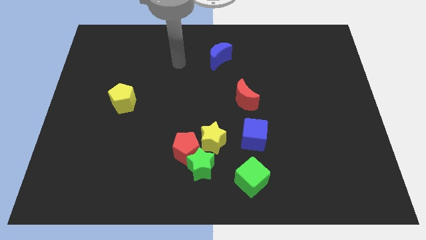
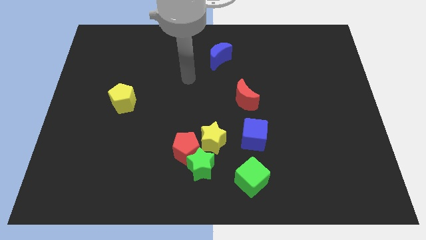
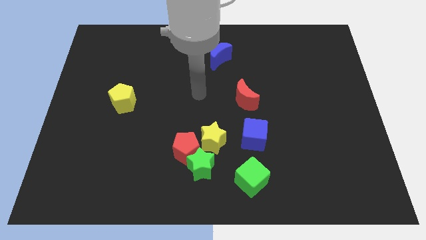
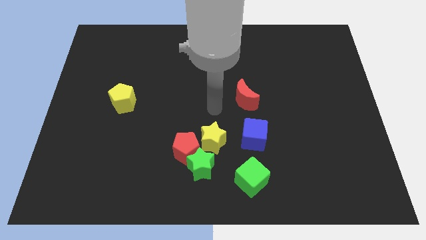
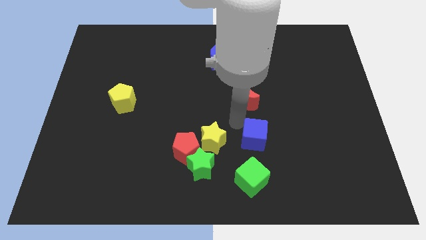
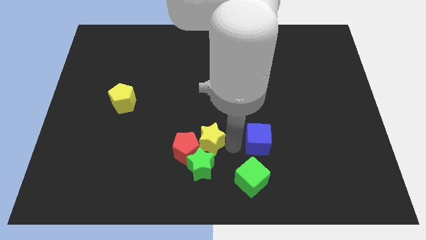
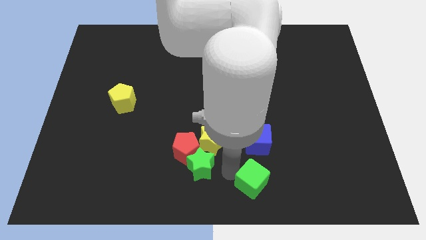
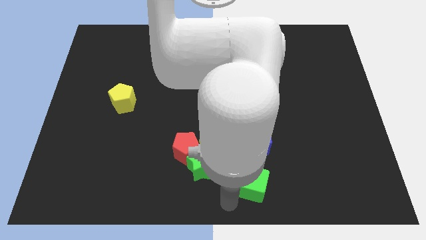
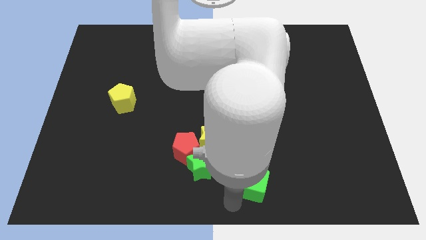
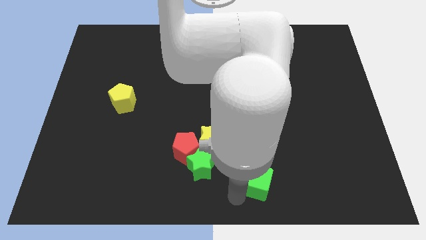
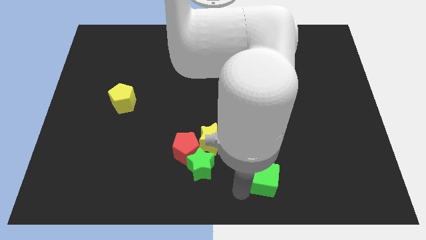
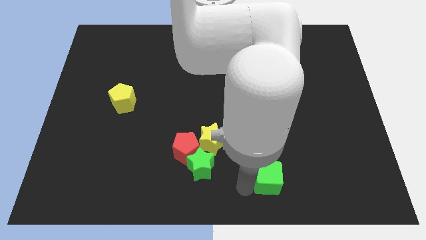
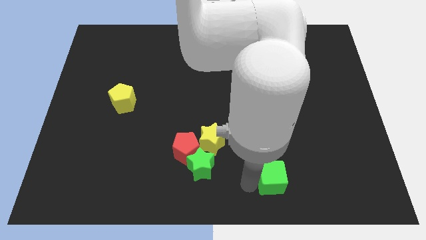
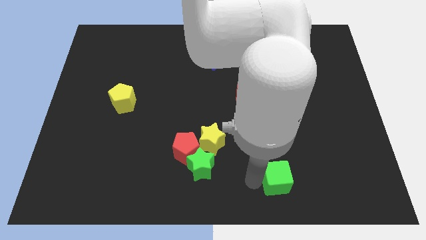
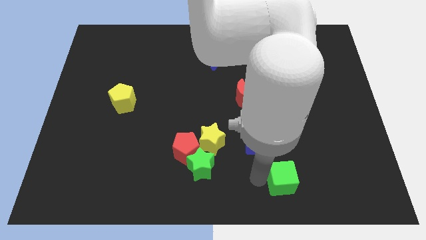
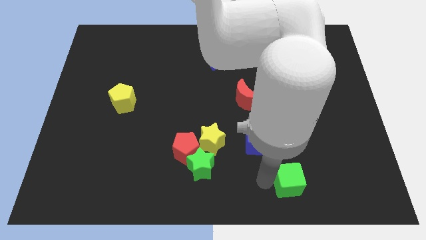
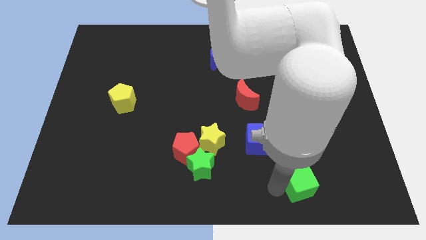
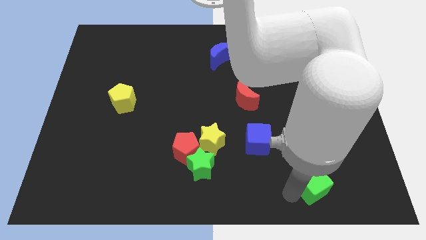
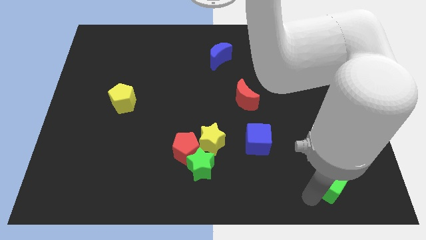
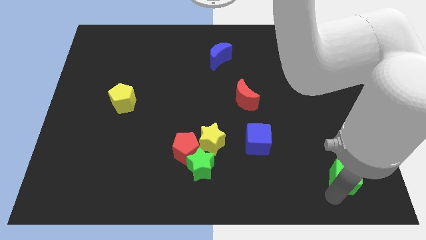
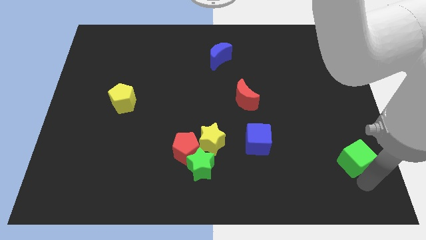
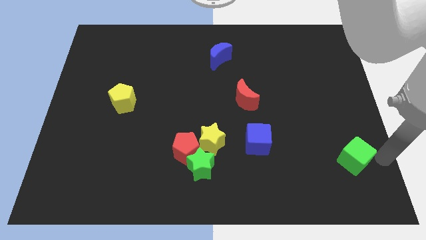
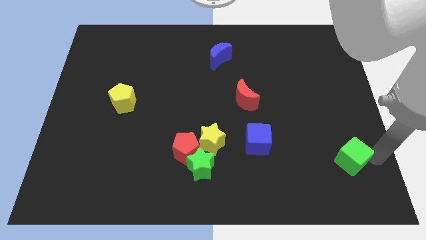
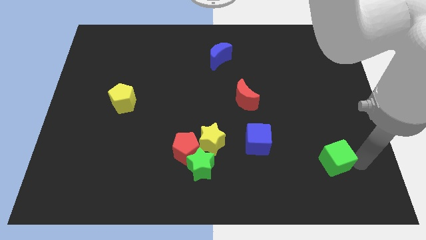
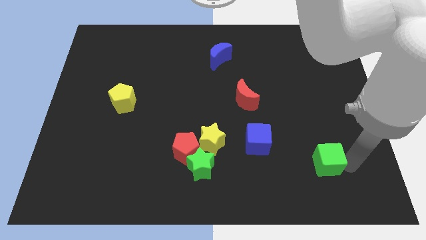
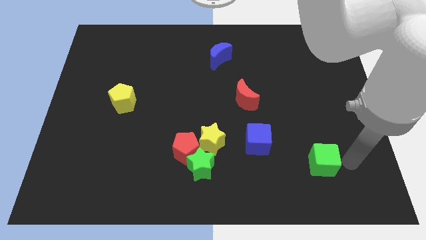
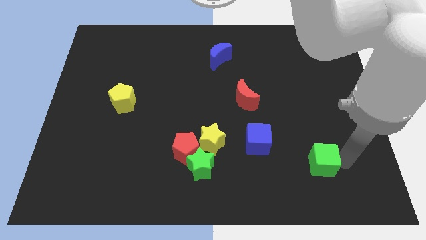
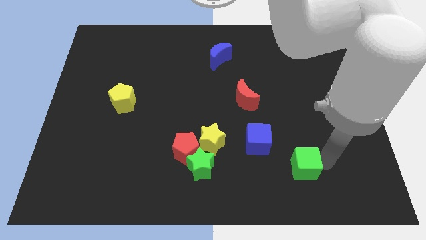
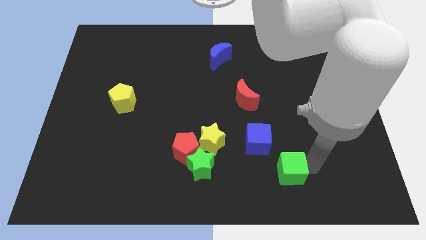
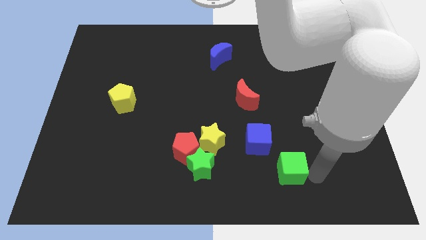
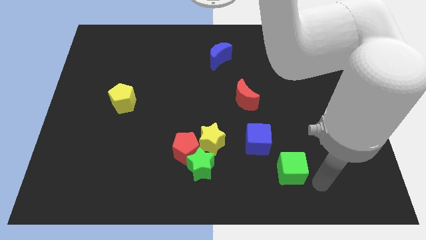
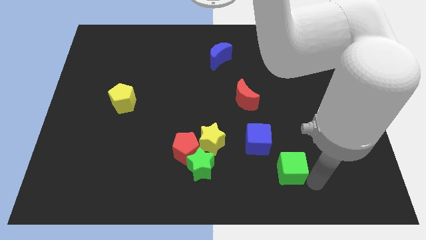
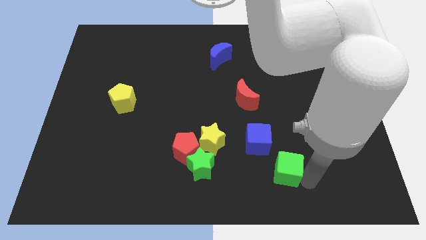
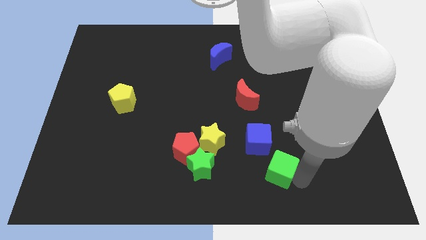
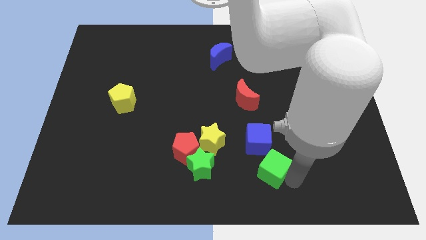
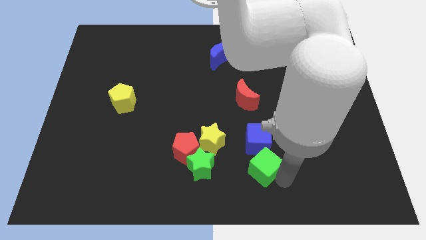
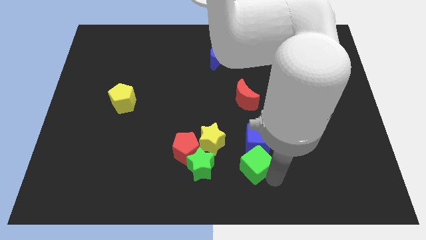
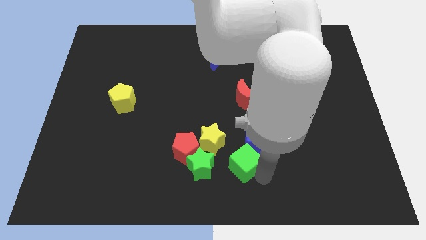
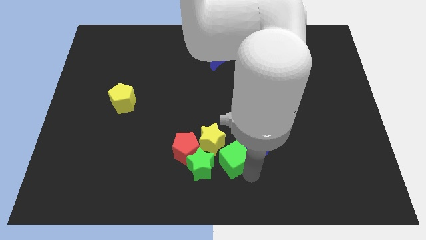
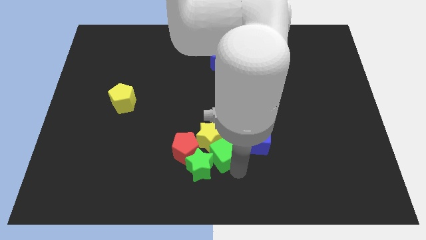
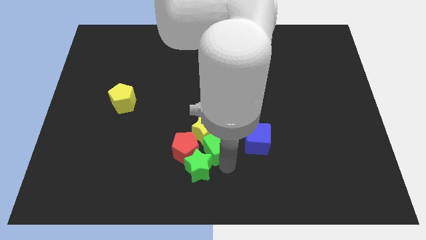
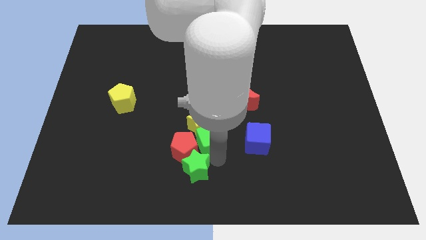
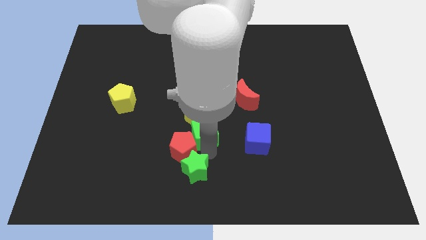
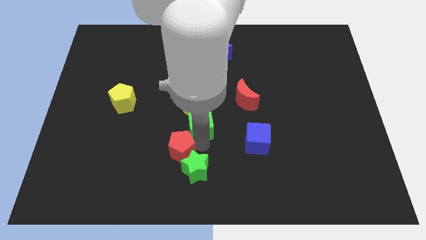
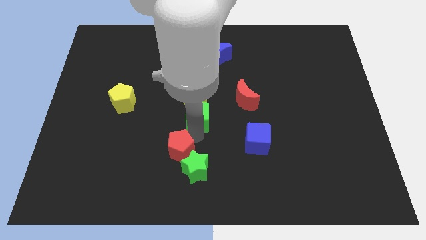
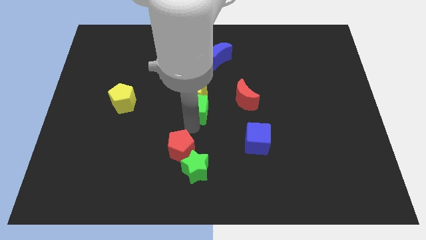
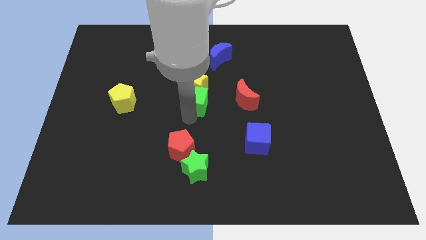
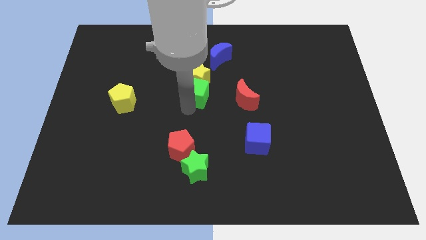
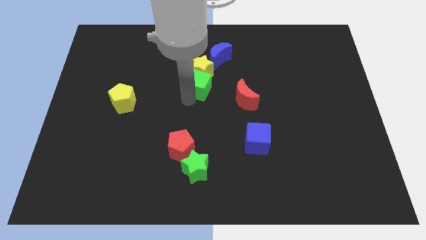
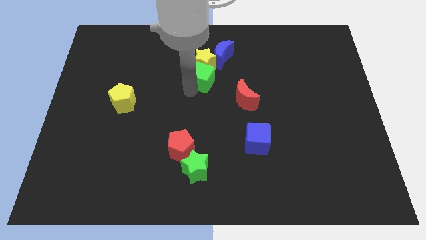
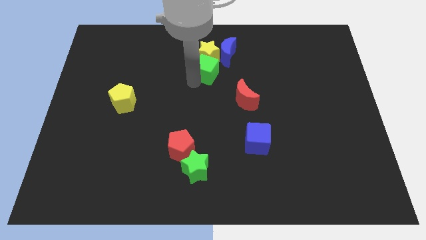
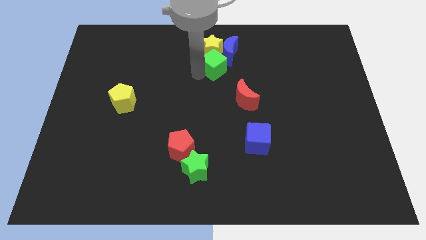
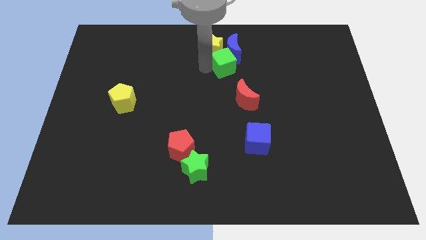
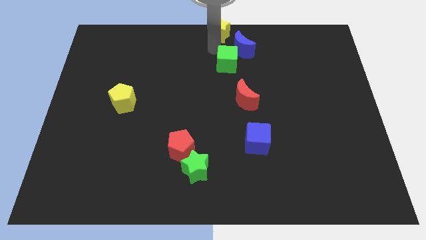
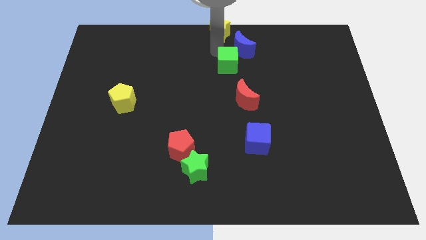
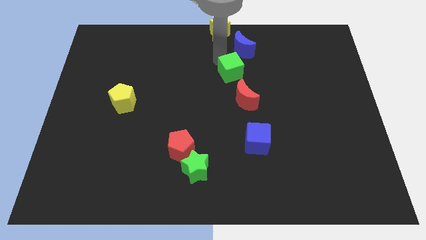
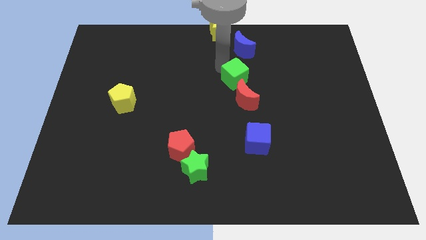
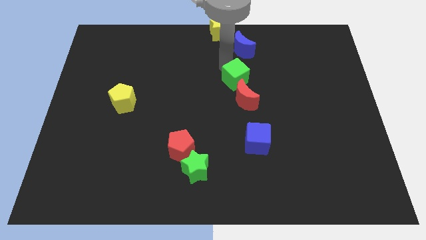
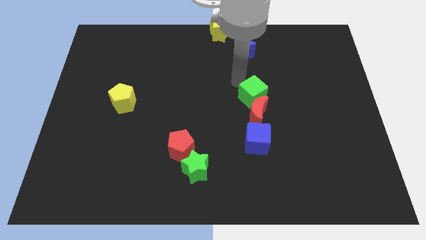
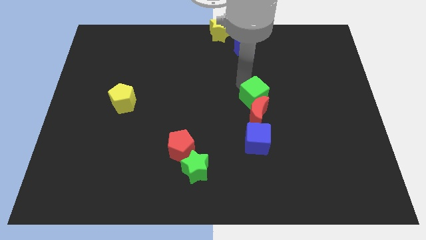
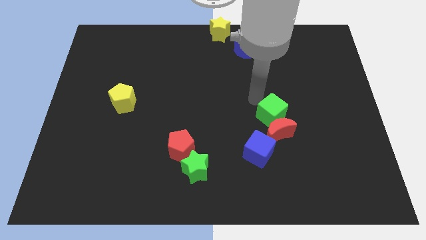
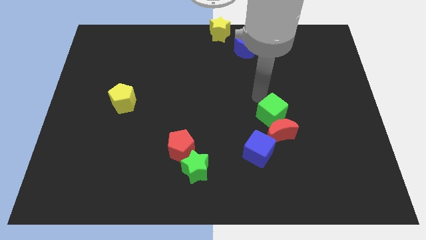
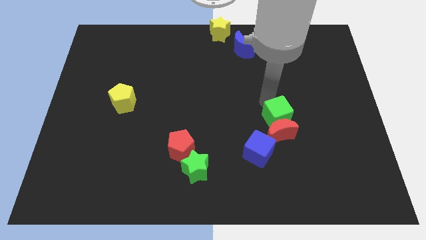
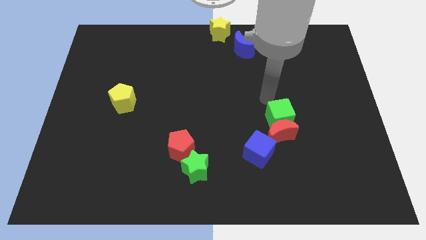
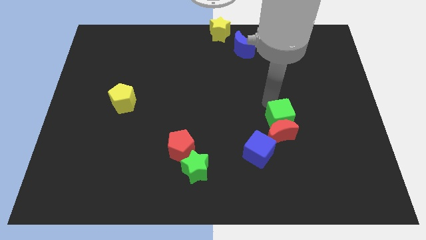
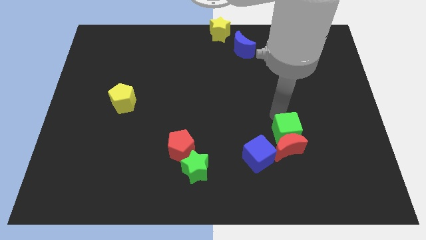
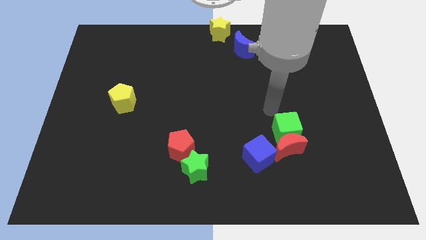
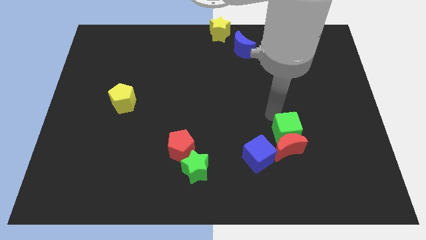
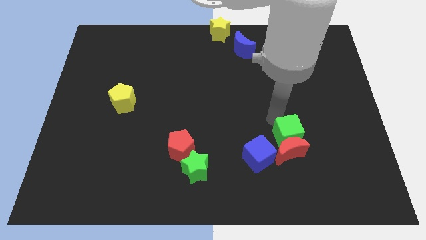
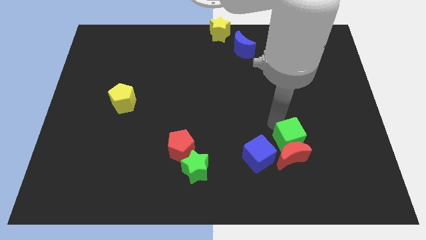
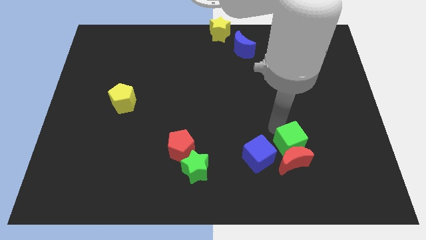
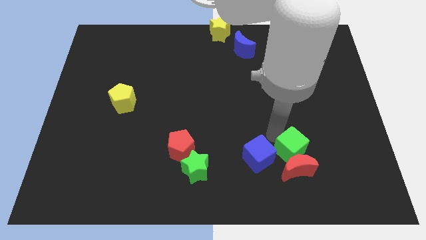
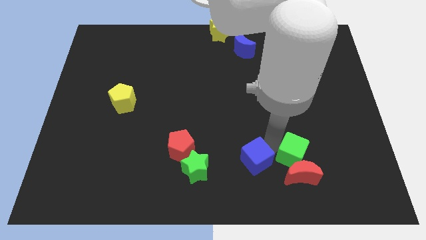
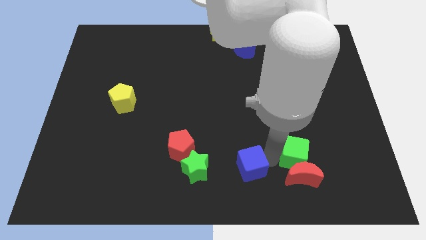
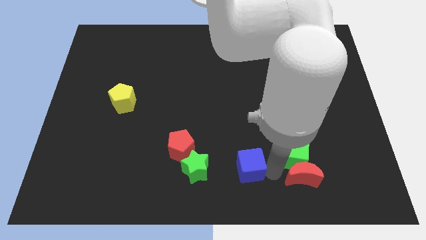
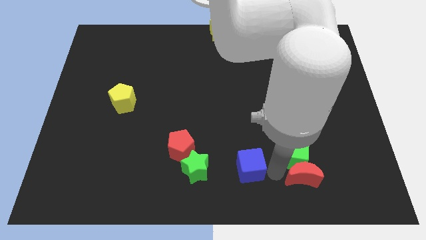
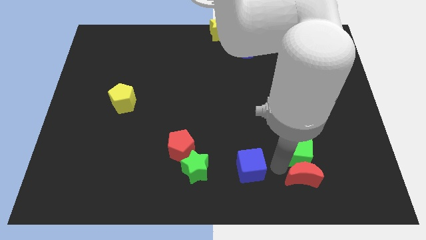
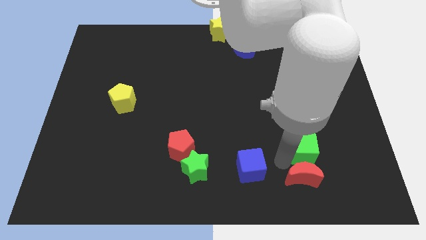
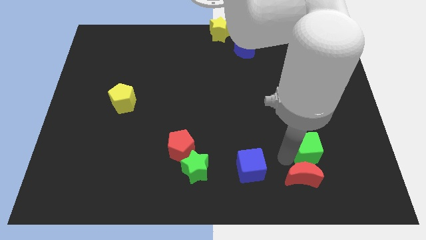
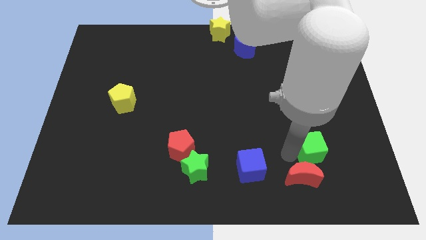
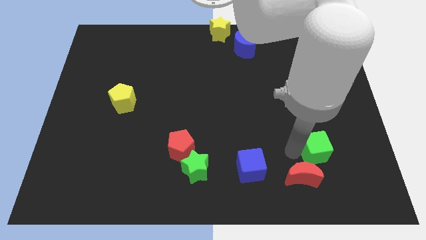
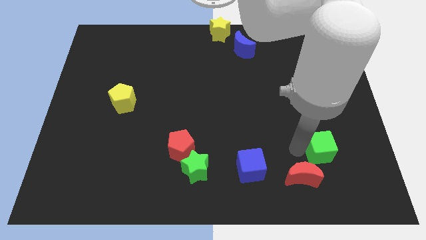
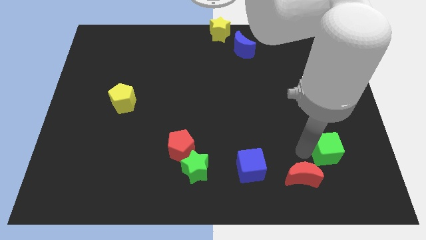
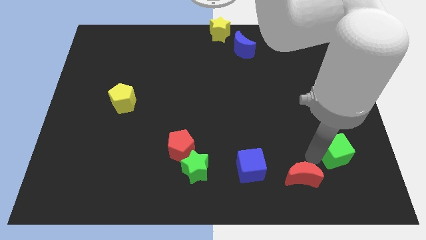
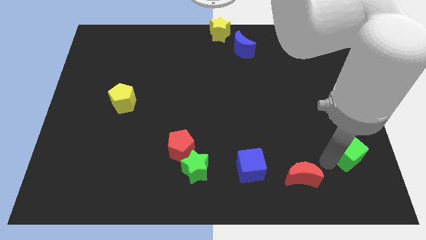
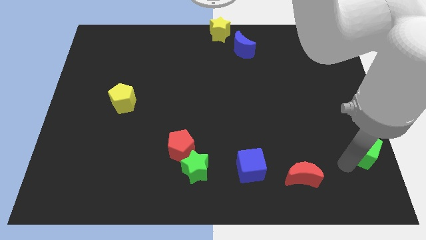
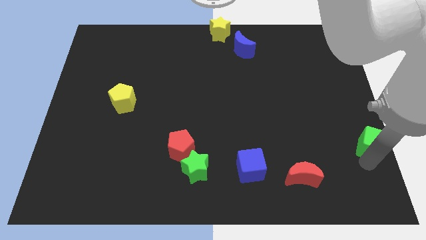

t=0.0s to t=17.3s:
slide the green cube to the right side
